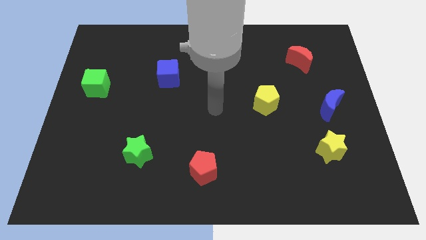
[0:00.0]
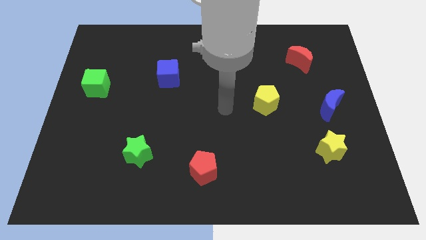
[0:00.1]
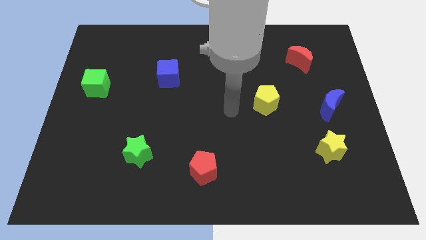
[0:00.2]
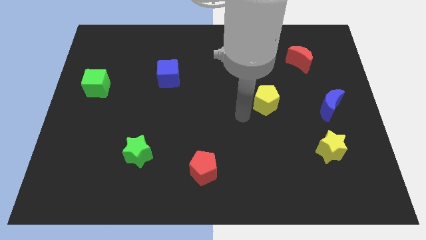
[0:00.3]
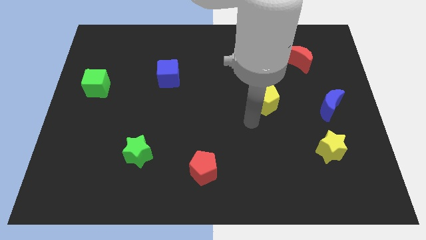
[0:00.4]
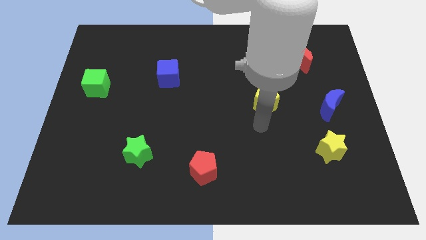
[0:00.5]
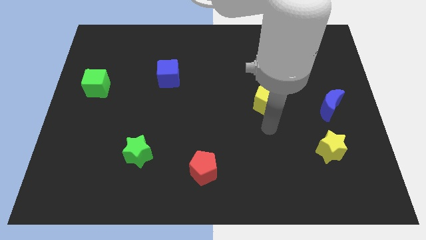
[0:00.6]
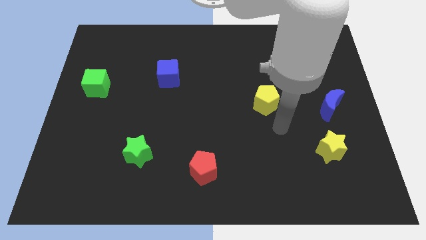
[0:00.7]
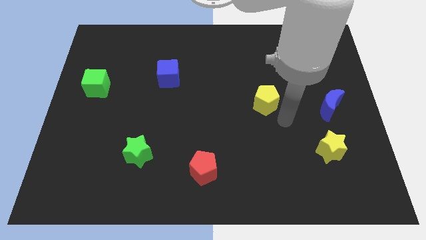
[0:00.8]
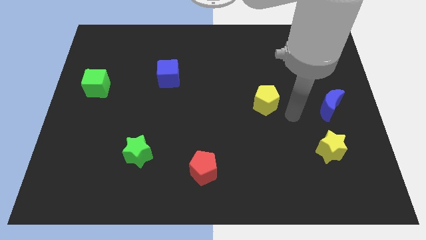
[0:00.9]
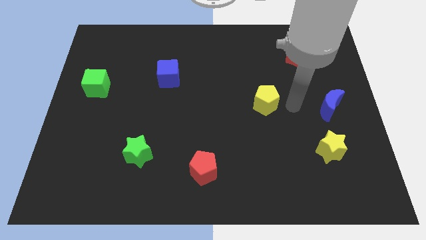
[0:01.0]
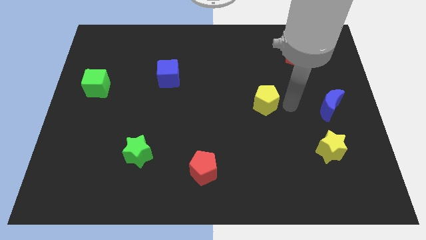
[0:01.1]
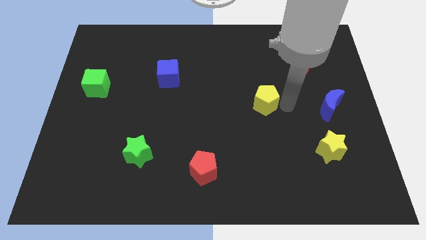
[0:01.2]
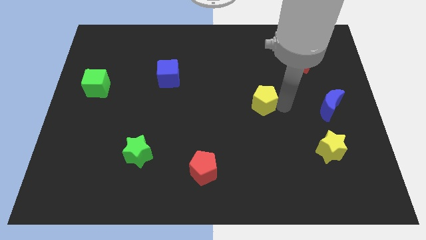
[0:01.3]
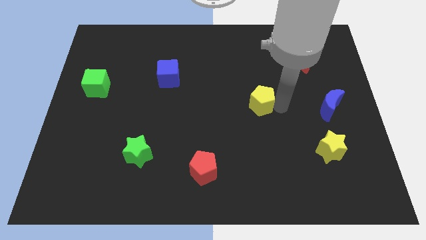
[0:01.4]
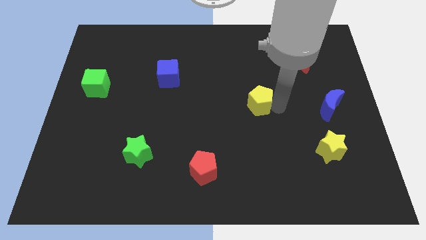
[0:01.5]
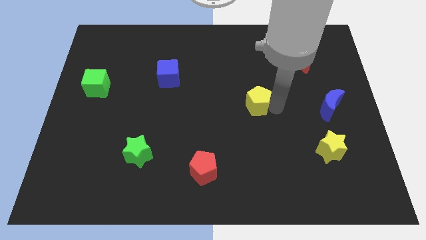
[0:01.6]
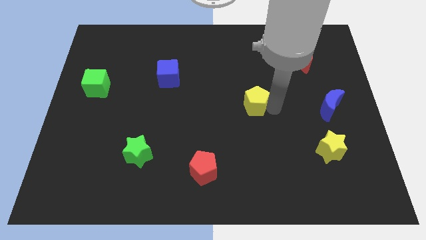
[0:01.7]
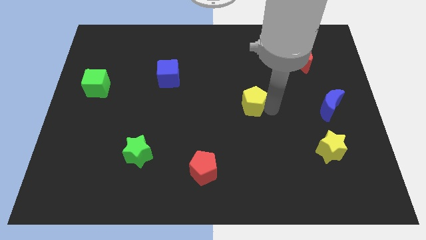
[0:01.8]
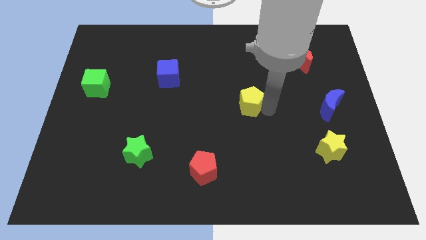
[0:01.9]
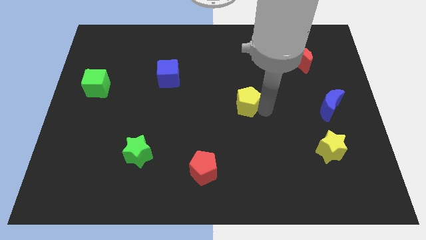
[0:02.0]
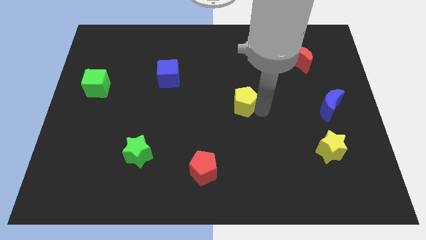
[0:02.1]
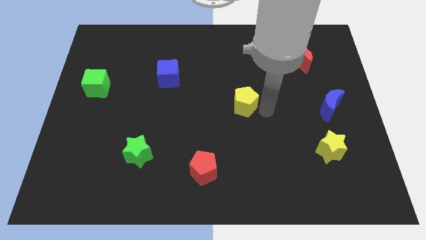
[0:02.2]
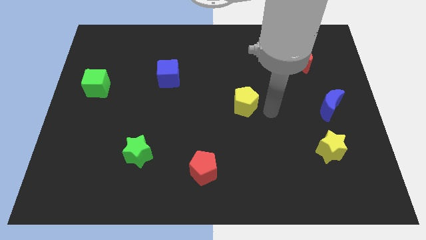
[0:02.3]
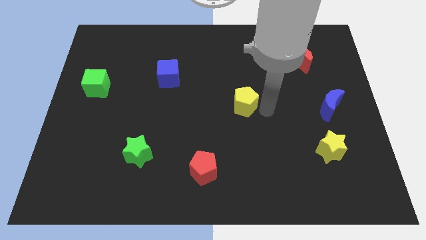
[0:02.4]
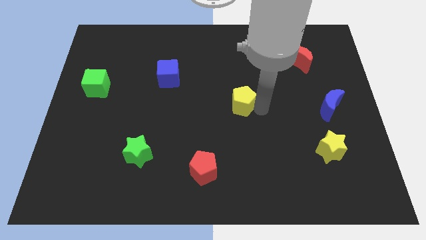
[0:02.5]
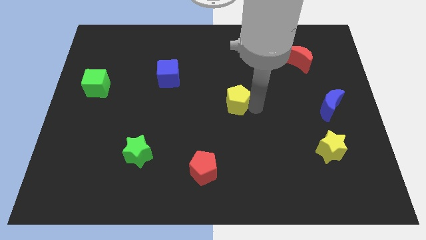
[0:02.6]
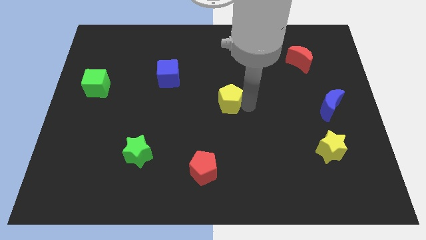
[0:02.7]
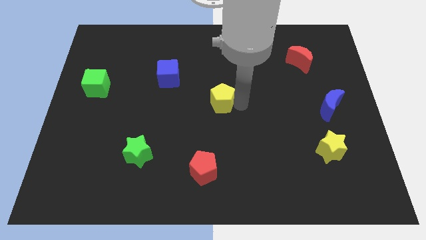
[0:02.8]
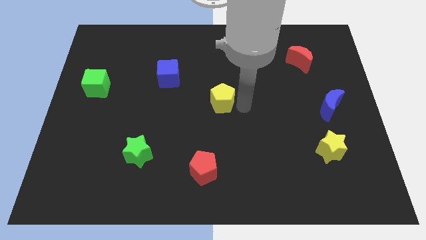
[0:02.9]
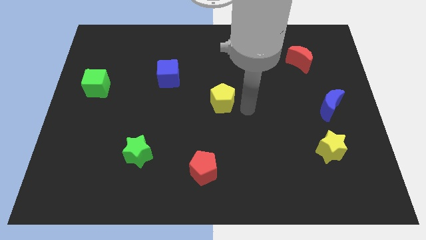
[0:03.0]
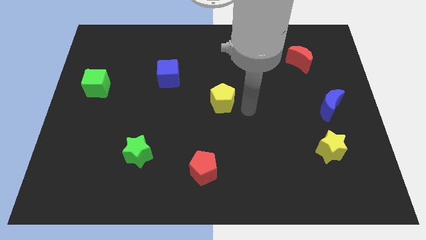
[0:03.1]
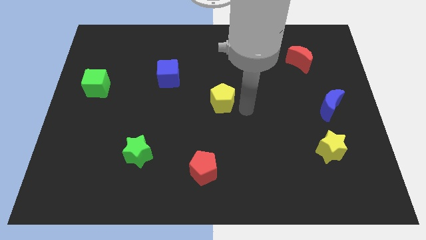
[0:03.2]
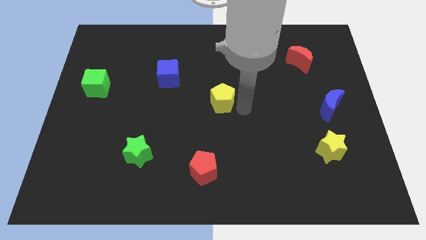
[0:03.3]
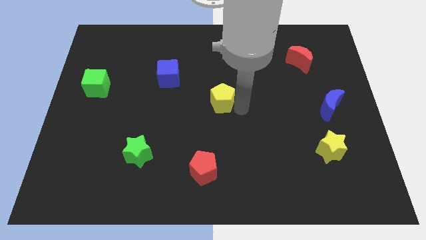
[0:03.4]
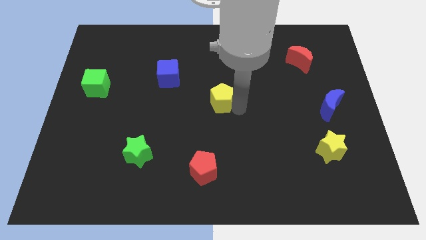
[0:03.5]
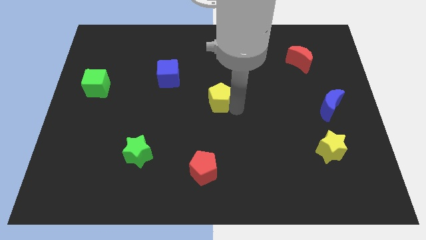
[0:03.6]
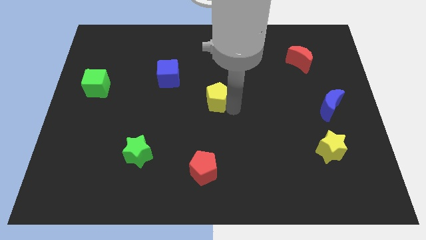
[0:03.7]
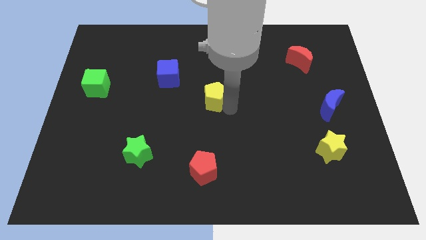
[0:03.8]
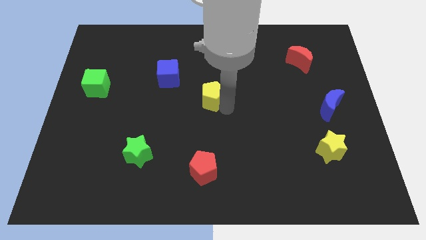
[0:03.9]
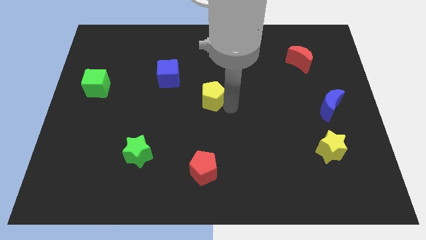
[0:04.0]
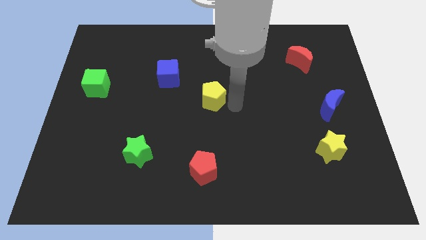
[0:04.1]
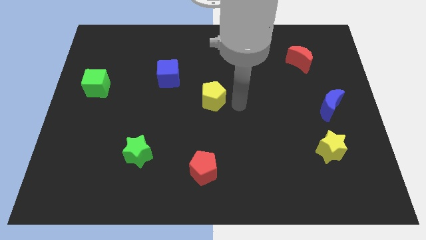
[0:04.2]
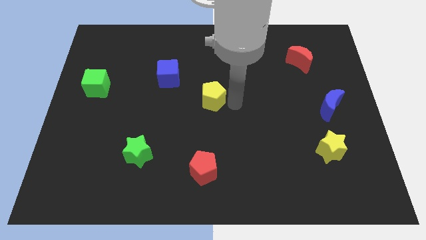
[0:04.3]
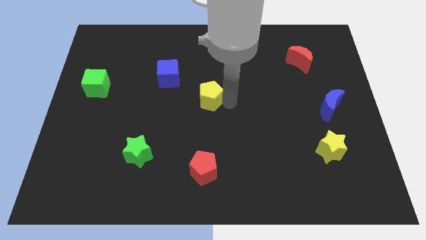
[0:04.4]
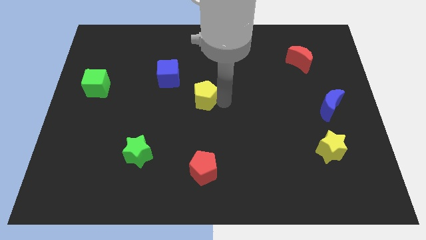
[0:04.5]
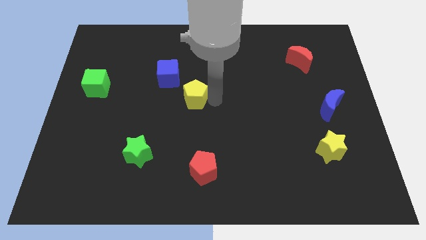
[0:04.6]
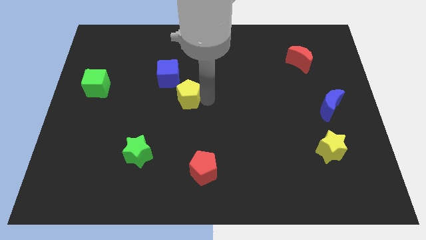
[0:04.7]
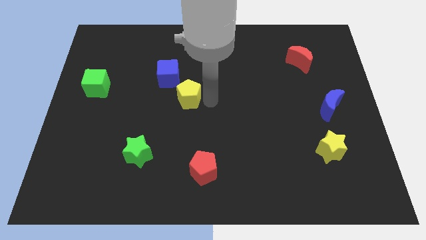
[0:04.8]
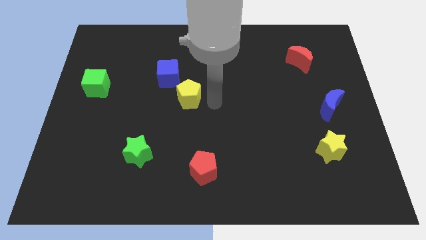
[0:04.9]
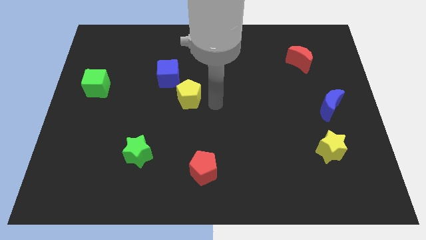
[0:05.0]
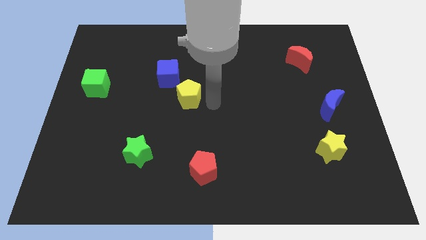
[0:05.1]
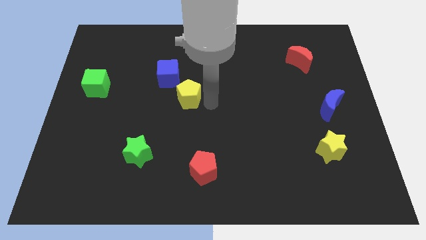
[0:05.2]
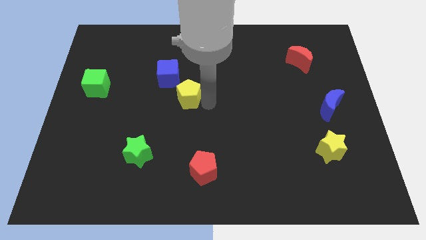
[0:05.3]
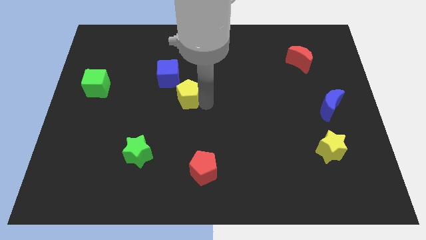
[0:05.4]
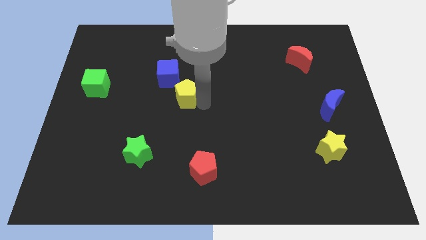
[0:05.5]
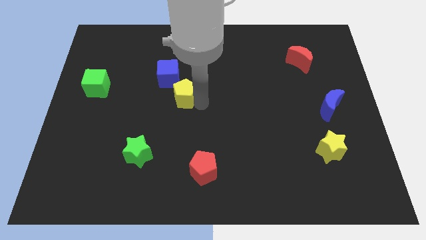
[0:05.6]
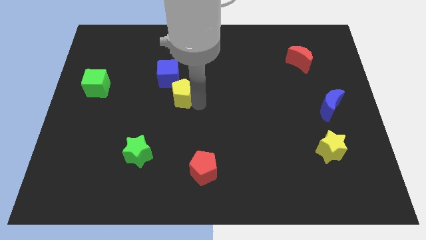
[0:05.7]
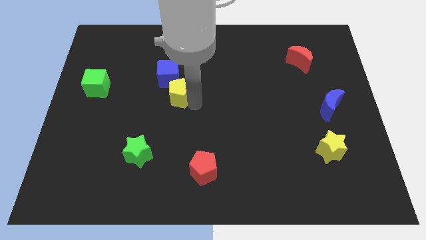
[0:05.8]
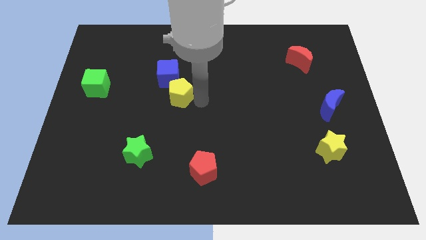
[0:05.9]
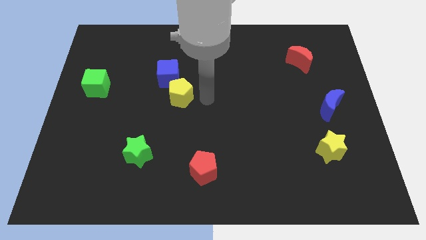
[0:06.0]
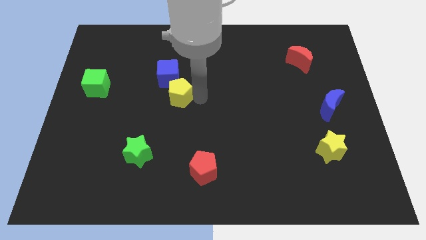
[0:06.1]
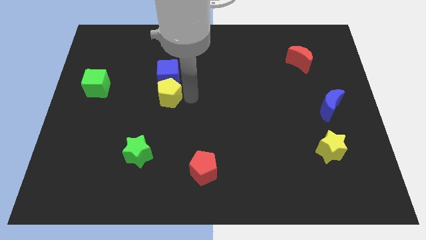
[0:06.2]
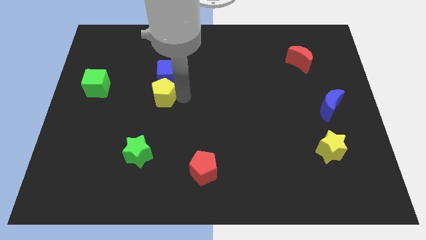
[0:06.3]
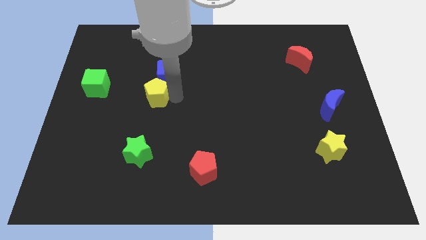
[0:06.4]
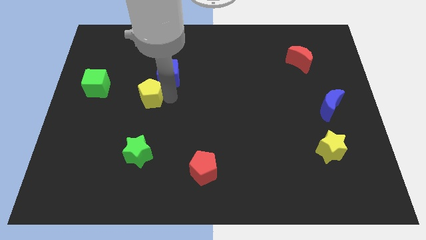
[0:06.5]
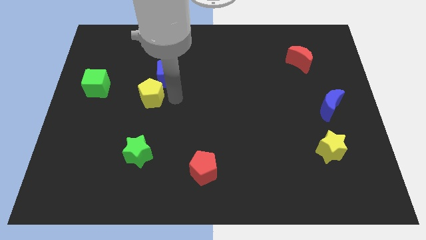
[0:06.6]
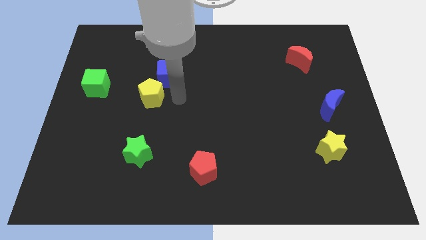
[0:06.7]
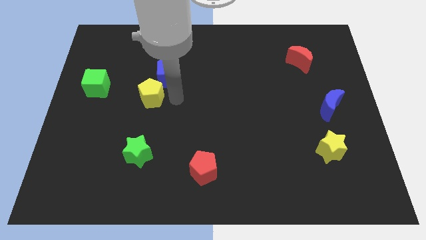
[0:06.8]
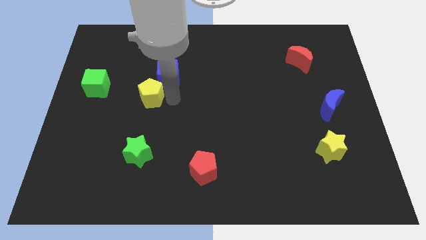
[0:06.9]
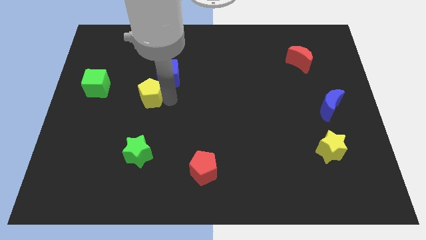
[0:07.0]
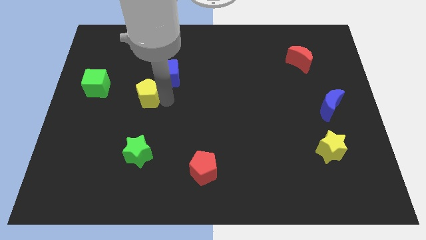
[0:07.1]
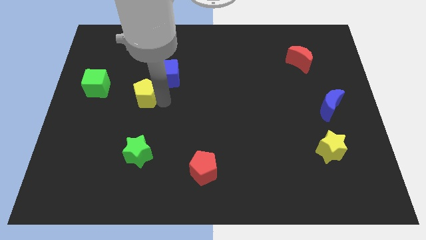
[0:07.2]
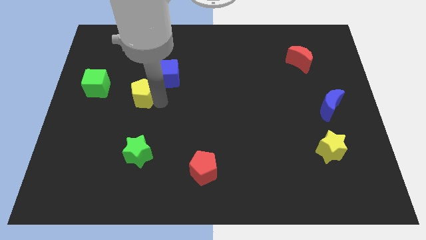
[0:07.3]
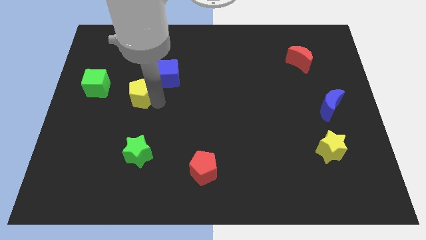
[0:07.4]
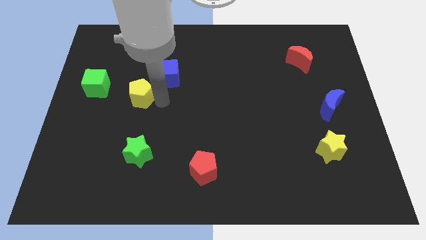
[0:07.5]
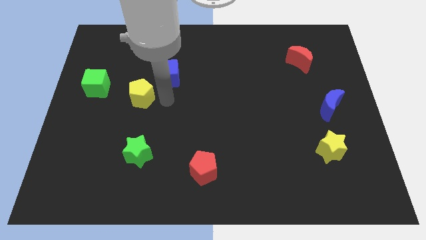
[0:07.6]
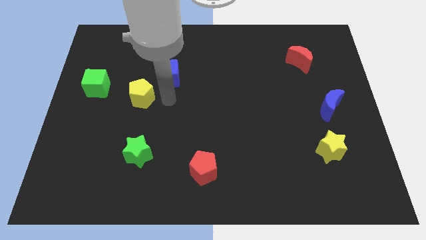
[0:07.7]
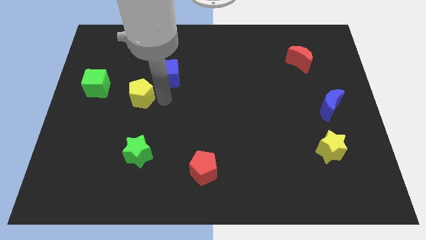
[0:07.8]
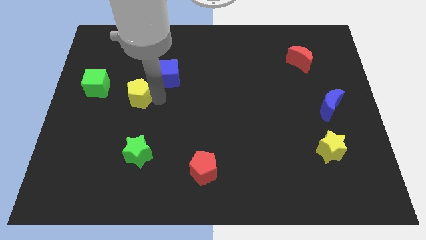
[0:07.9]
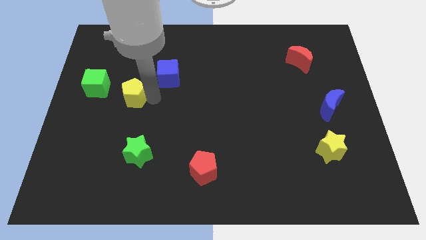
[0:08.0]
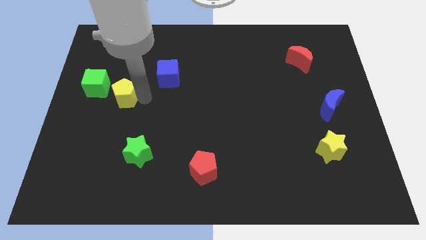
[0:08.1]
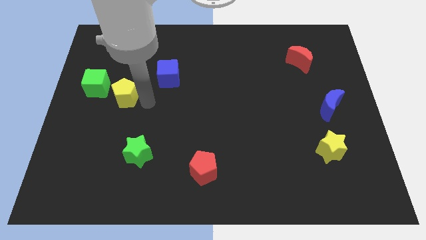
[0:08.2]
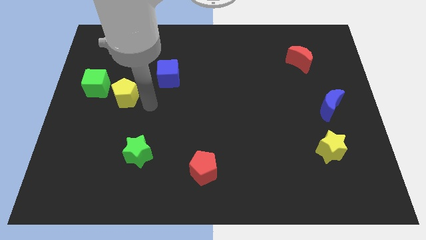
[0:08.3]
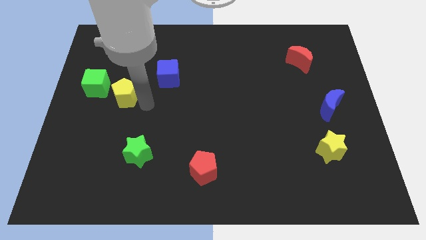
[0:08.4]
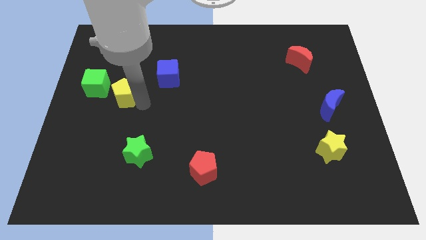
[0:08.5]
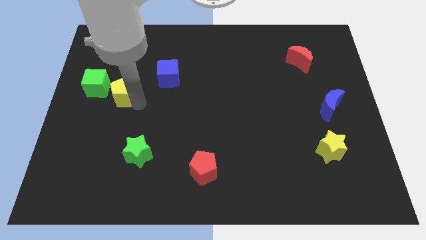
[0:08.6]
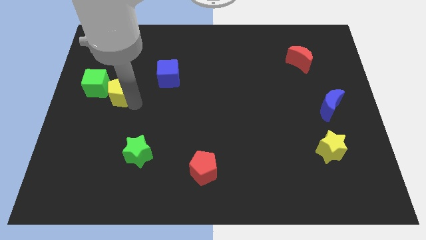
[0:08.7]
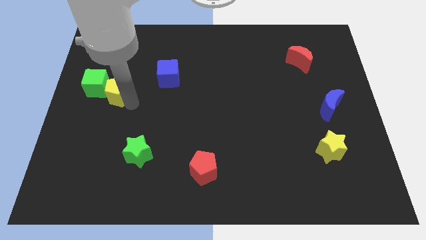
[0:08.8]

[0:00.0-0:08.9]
slide the yellow pentagon close to the green cube
